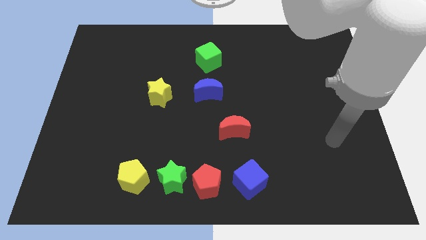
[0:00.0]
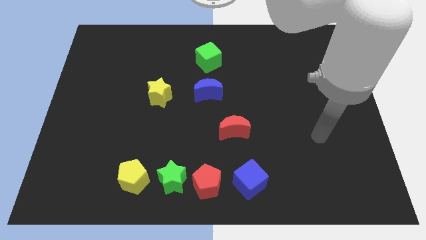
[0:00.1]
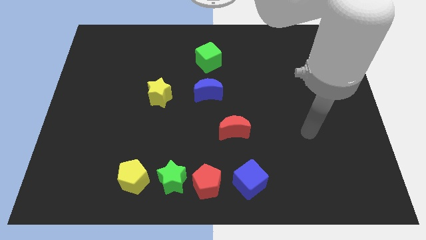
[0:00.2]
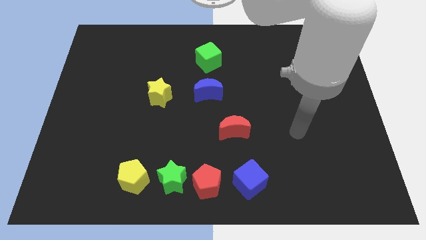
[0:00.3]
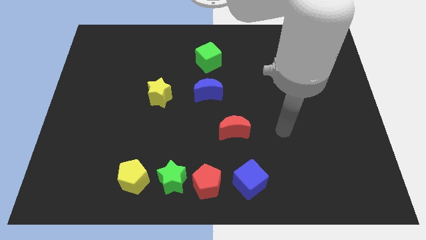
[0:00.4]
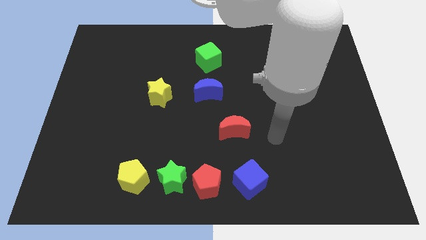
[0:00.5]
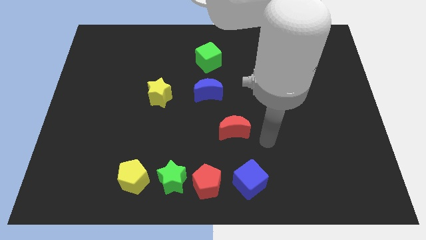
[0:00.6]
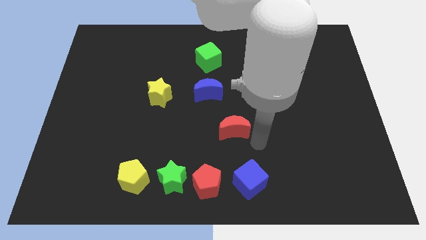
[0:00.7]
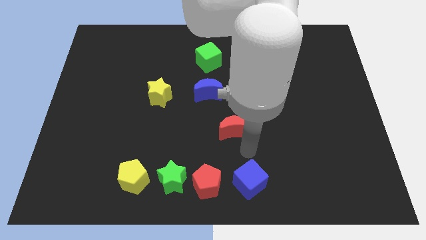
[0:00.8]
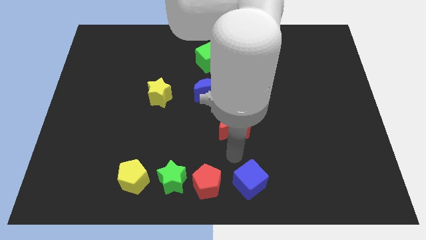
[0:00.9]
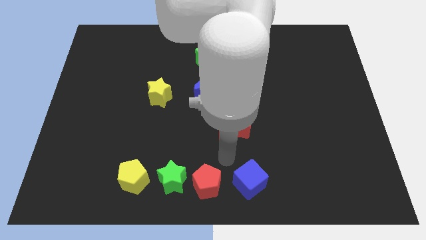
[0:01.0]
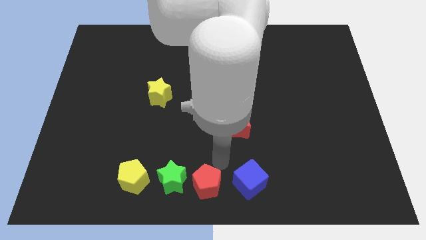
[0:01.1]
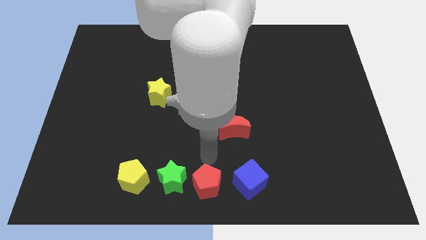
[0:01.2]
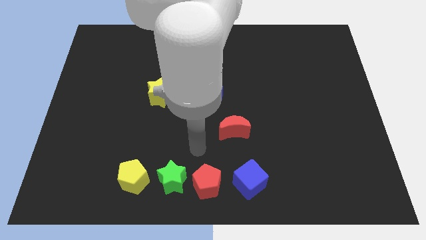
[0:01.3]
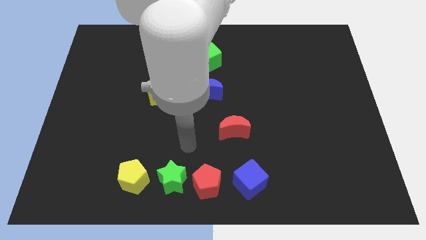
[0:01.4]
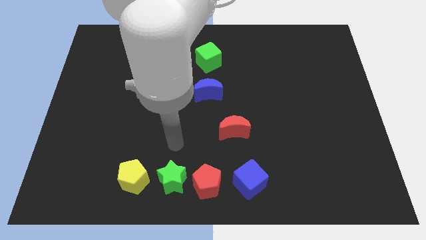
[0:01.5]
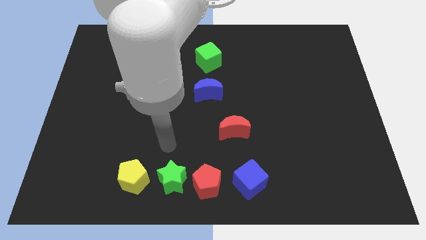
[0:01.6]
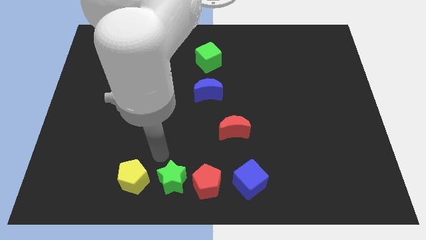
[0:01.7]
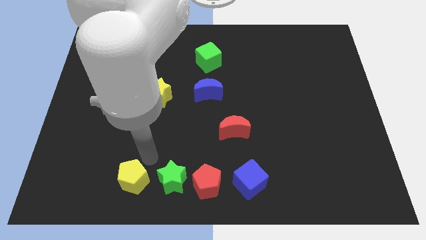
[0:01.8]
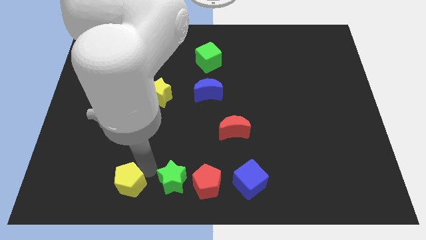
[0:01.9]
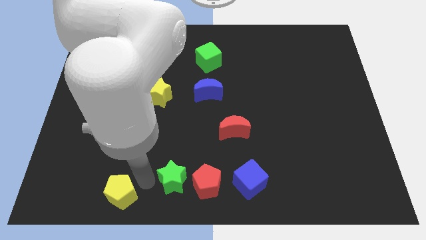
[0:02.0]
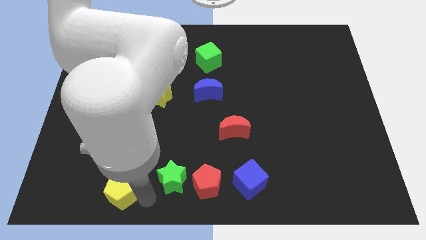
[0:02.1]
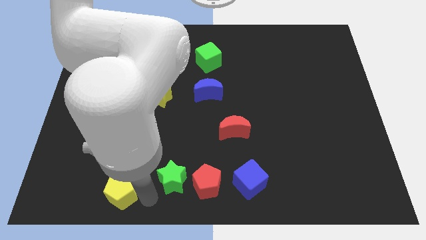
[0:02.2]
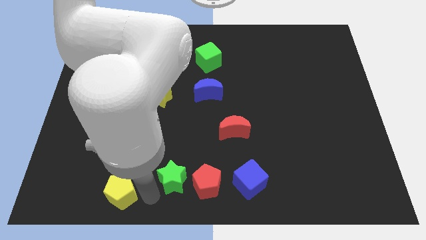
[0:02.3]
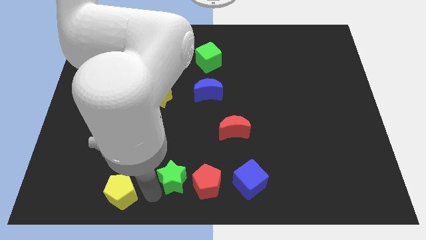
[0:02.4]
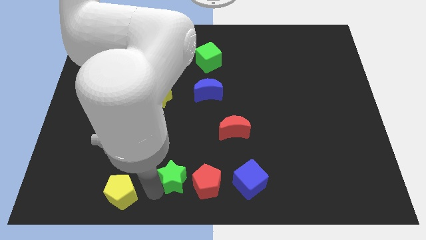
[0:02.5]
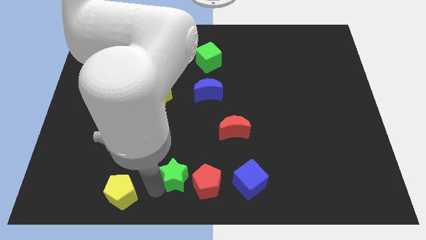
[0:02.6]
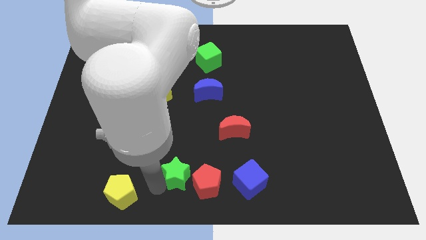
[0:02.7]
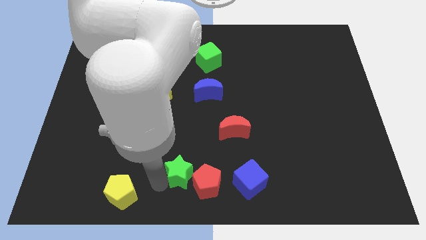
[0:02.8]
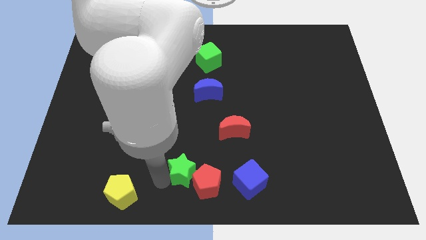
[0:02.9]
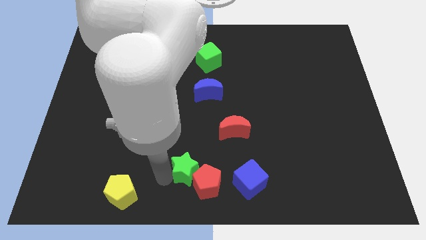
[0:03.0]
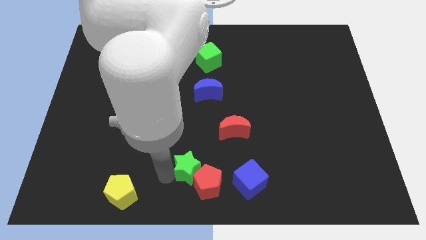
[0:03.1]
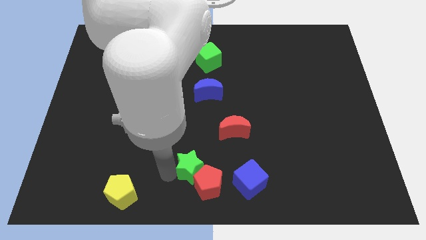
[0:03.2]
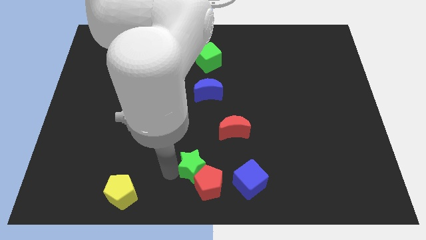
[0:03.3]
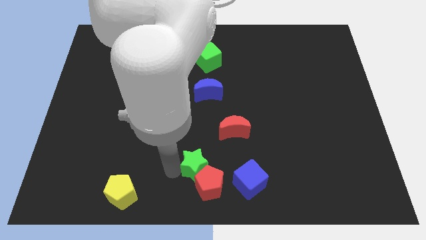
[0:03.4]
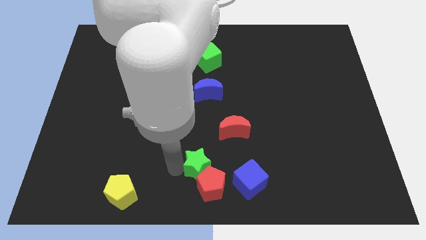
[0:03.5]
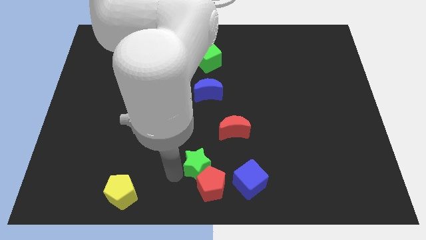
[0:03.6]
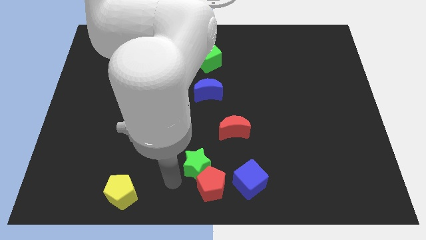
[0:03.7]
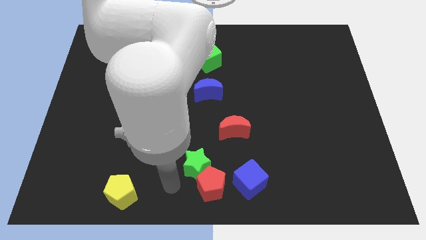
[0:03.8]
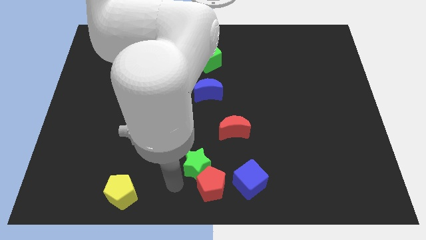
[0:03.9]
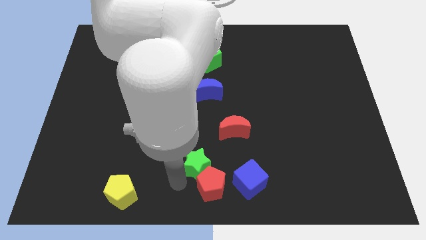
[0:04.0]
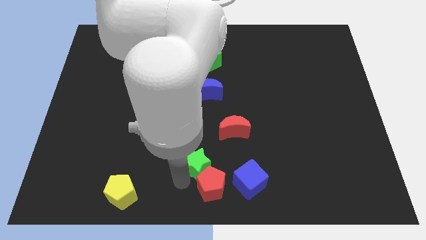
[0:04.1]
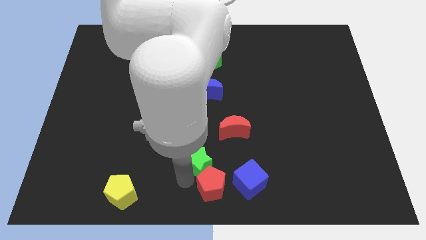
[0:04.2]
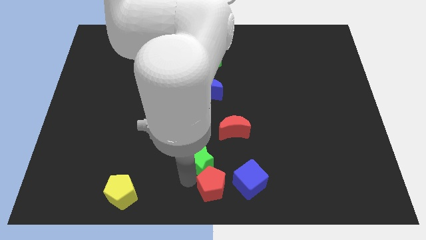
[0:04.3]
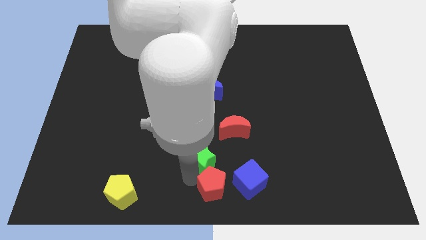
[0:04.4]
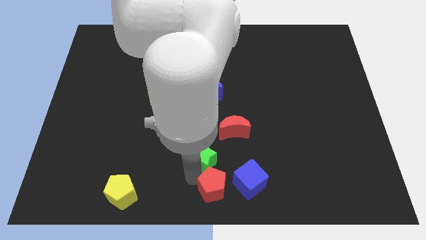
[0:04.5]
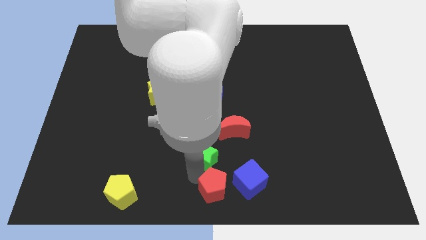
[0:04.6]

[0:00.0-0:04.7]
pull the green star apart from the red pentagon and yellow pentagon

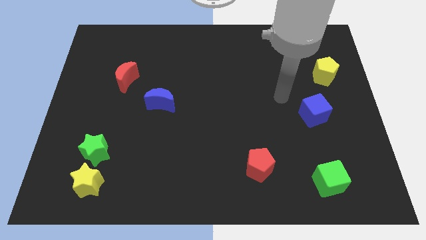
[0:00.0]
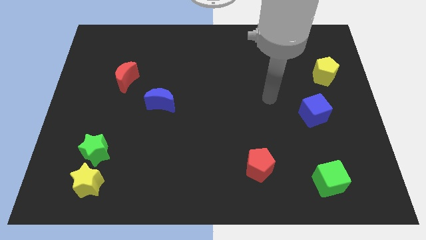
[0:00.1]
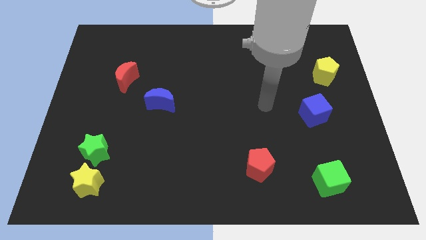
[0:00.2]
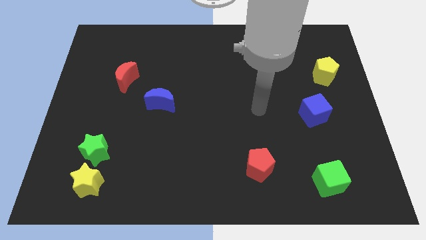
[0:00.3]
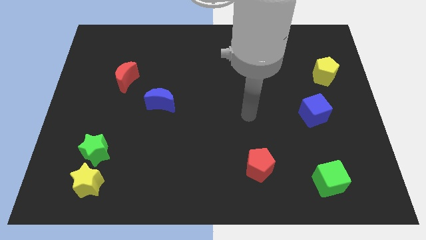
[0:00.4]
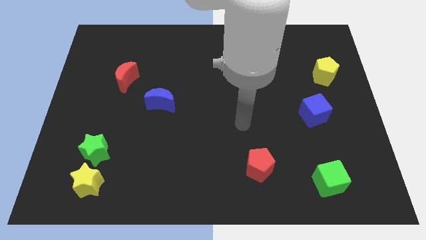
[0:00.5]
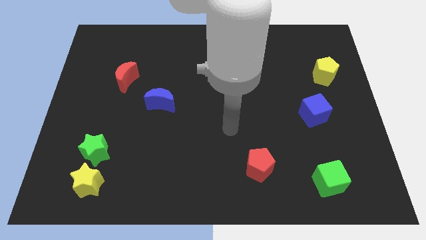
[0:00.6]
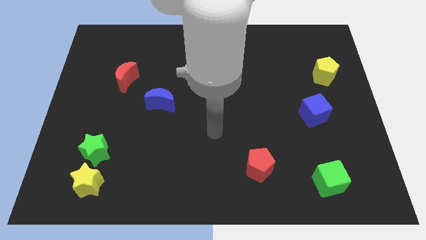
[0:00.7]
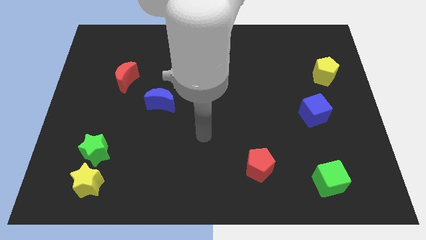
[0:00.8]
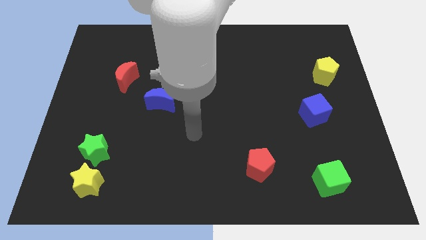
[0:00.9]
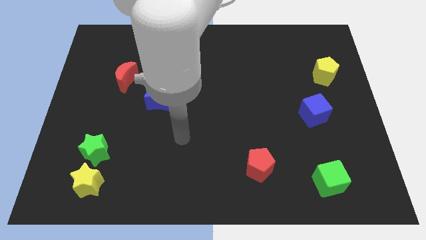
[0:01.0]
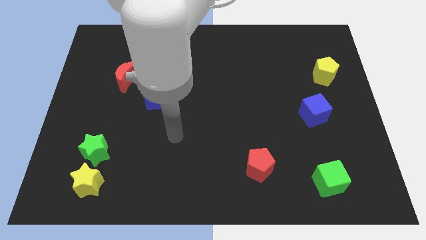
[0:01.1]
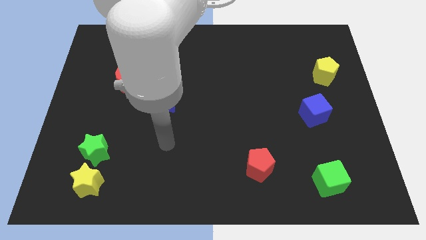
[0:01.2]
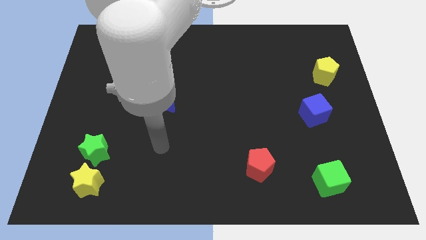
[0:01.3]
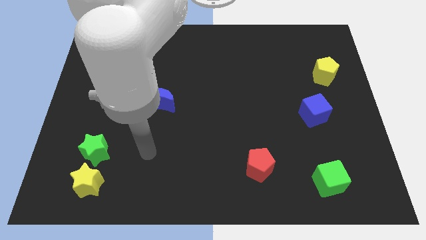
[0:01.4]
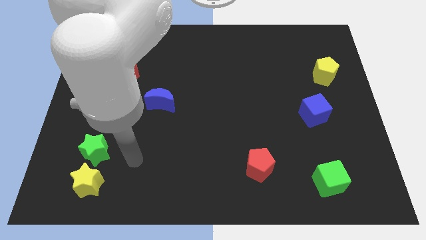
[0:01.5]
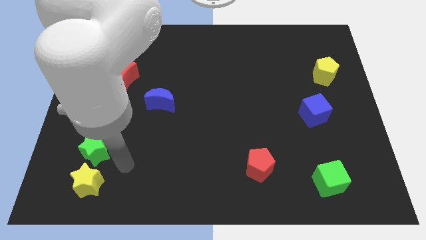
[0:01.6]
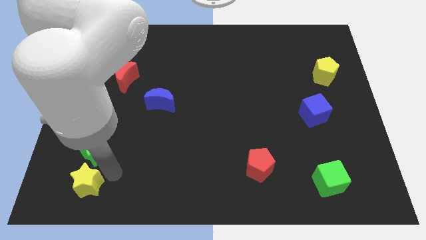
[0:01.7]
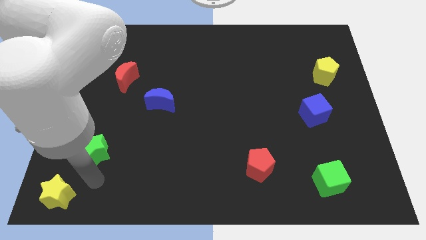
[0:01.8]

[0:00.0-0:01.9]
move the green star away from the yellow star

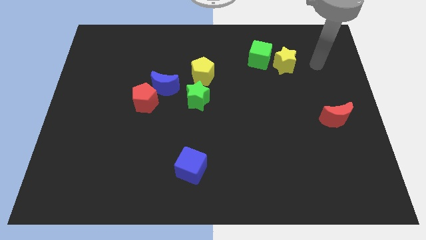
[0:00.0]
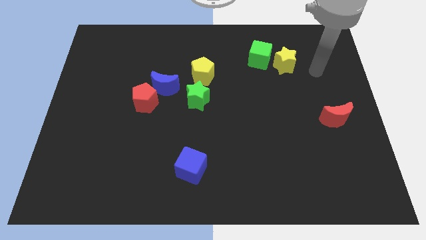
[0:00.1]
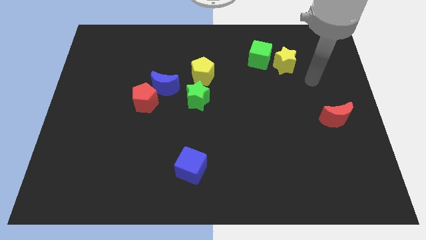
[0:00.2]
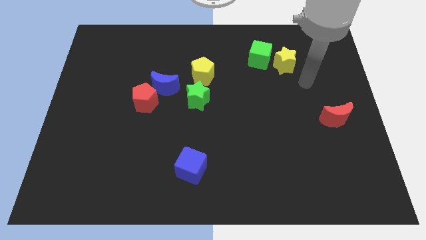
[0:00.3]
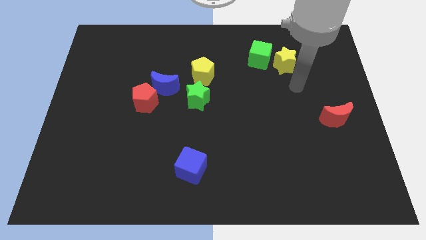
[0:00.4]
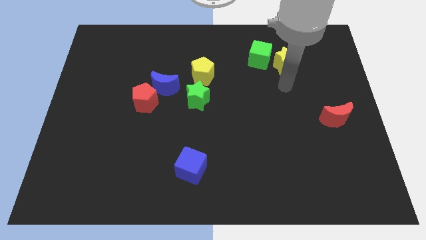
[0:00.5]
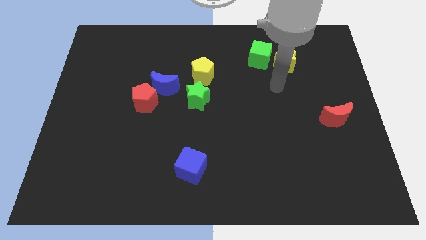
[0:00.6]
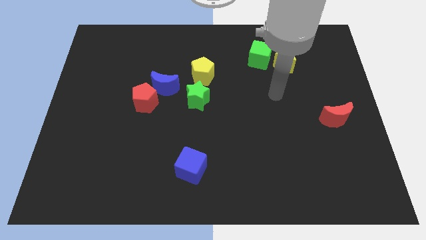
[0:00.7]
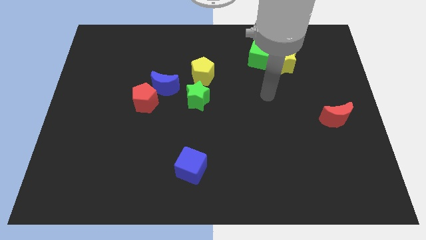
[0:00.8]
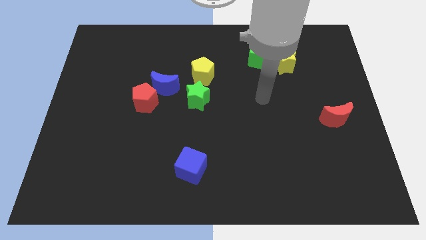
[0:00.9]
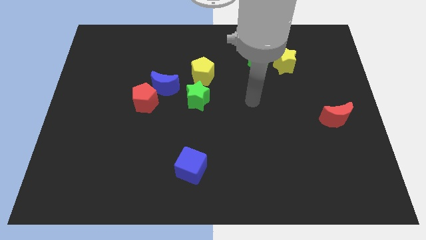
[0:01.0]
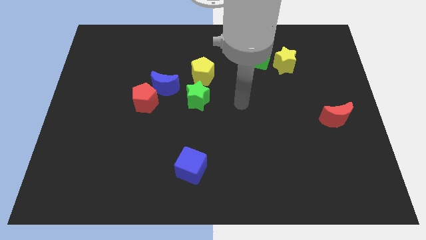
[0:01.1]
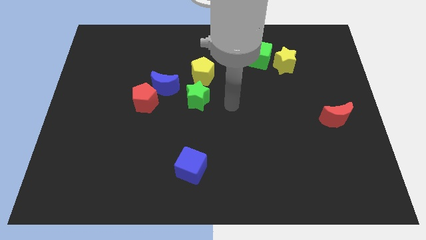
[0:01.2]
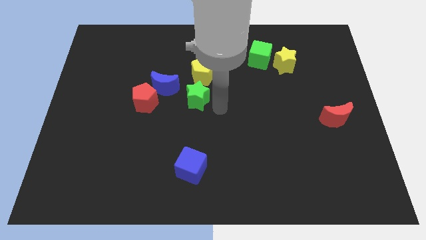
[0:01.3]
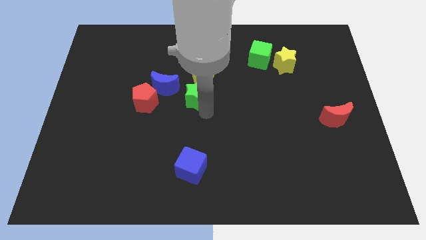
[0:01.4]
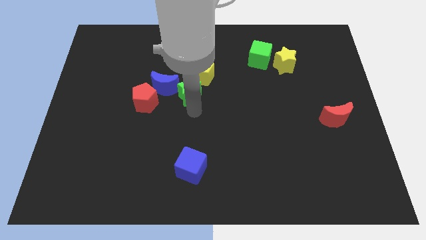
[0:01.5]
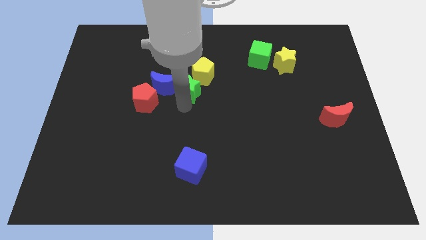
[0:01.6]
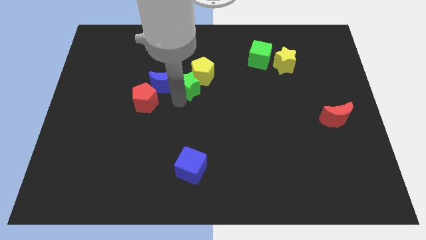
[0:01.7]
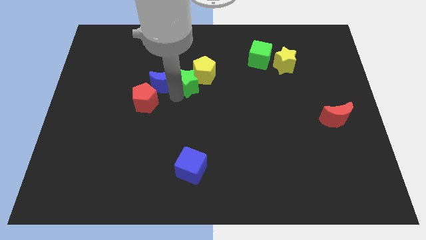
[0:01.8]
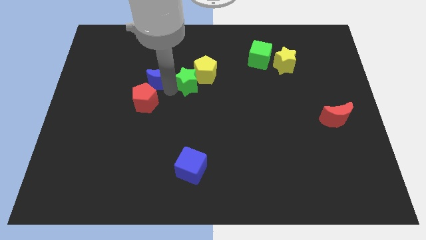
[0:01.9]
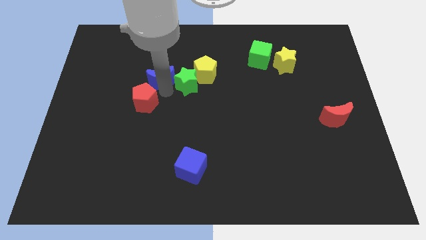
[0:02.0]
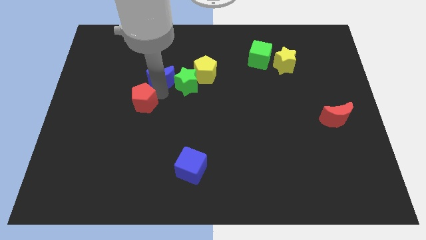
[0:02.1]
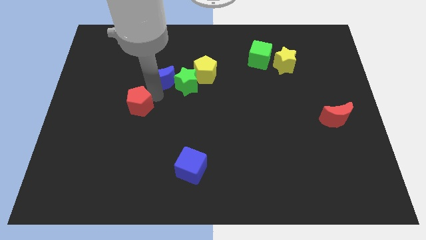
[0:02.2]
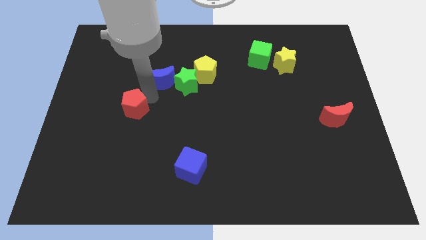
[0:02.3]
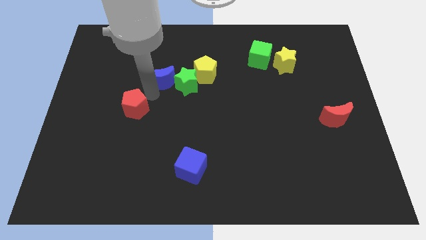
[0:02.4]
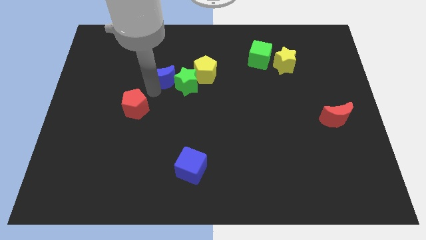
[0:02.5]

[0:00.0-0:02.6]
move the red pentagon away from the blue moon

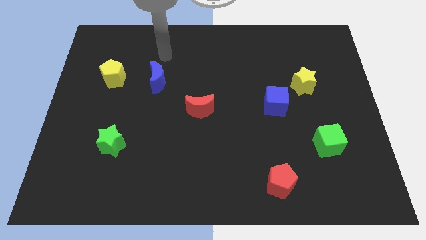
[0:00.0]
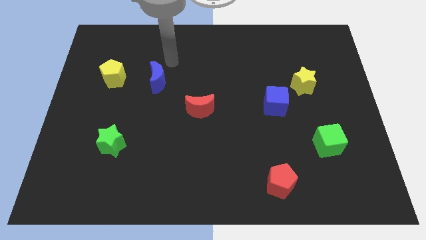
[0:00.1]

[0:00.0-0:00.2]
separate the blue cube from the yellow star
